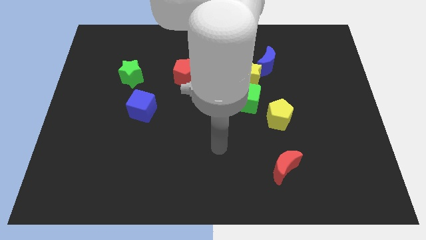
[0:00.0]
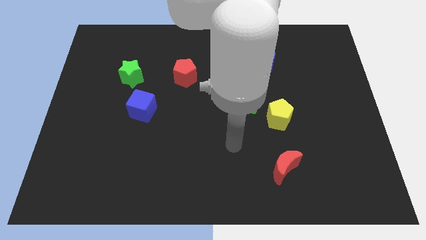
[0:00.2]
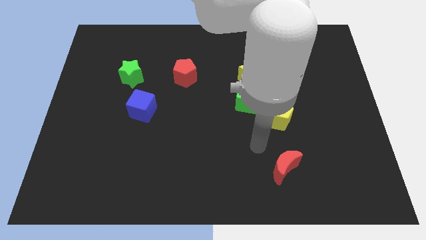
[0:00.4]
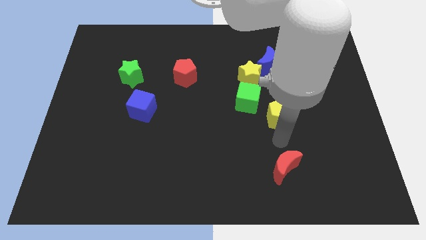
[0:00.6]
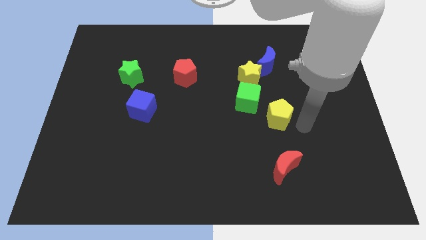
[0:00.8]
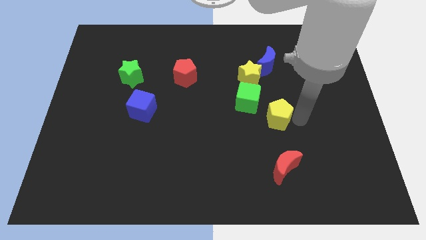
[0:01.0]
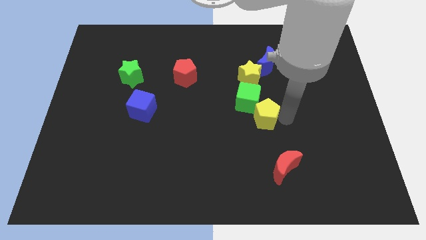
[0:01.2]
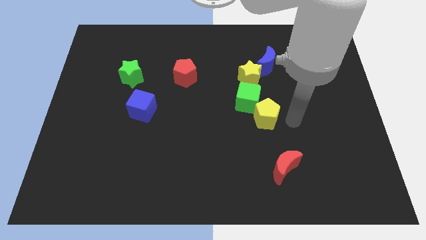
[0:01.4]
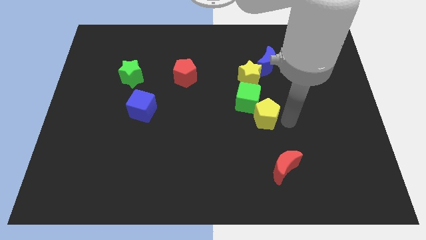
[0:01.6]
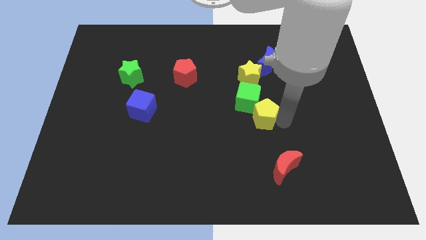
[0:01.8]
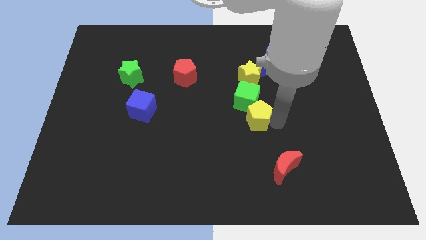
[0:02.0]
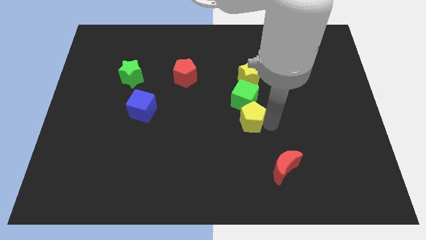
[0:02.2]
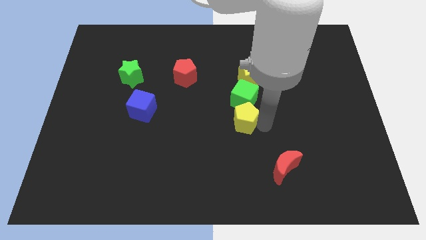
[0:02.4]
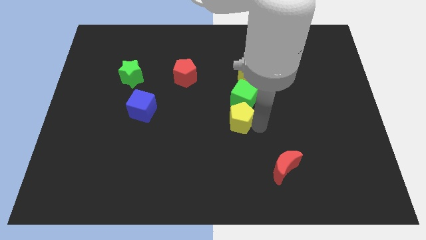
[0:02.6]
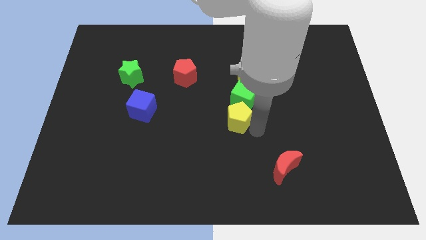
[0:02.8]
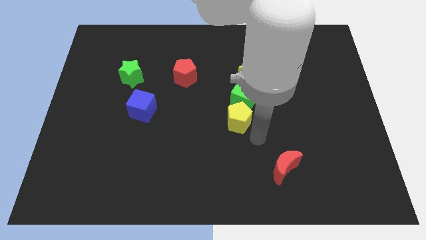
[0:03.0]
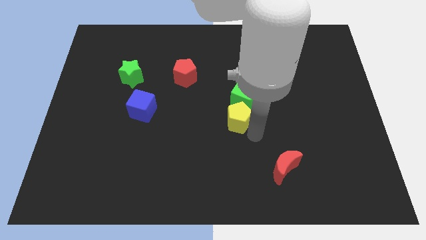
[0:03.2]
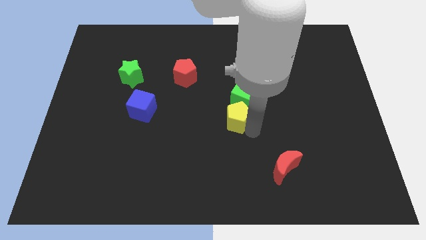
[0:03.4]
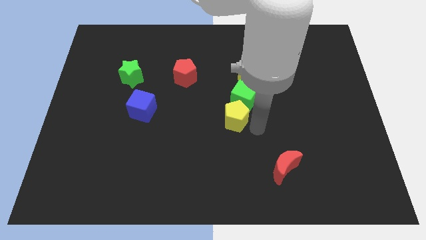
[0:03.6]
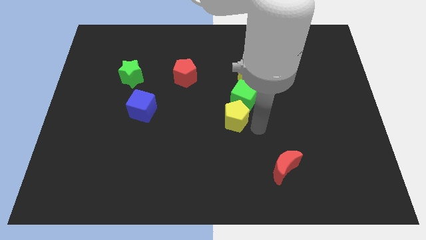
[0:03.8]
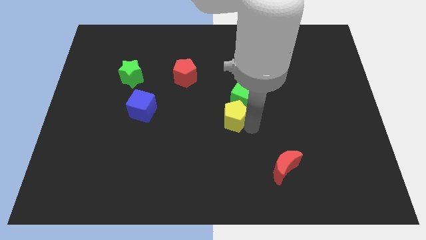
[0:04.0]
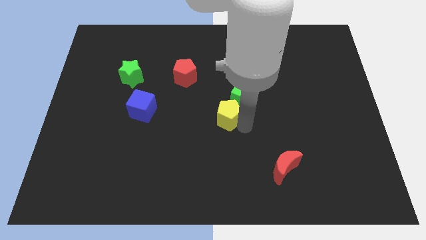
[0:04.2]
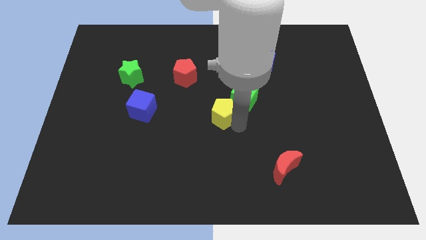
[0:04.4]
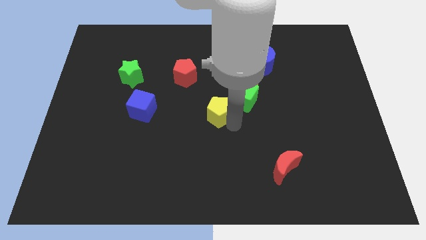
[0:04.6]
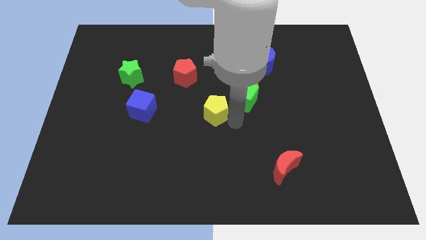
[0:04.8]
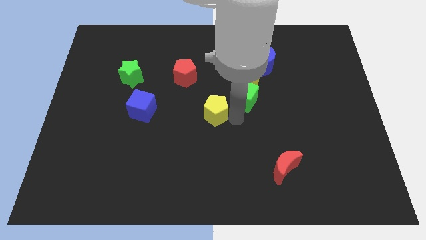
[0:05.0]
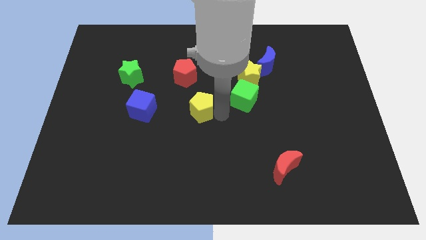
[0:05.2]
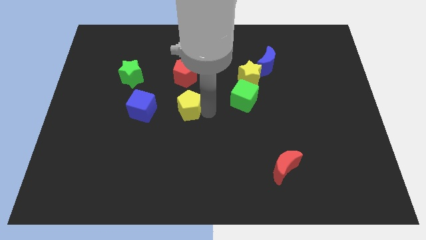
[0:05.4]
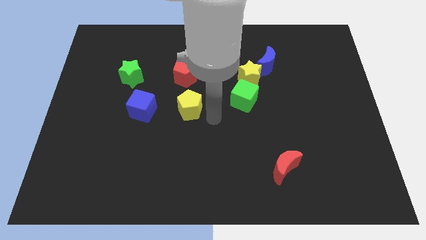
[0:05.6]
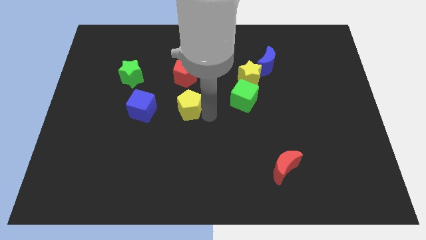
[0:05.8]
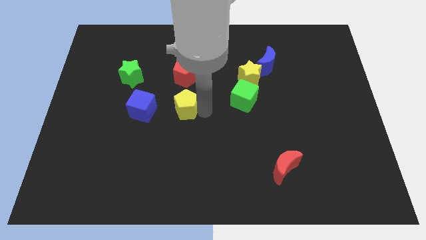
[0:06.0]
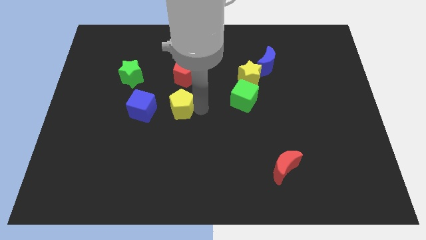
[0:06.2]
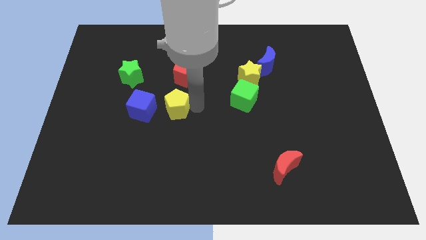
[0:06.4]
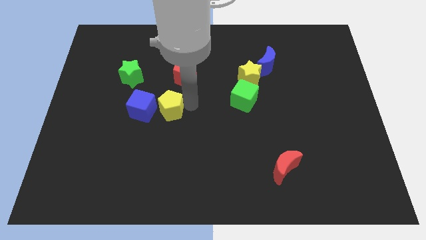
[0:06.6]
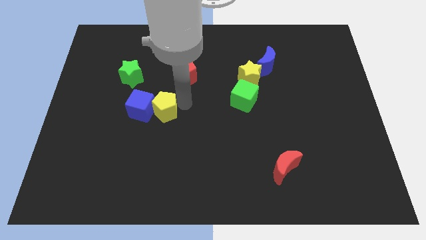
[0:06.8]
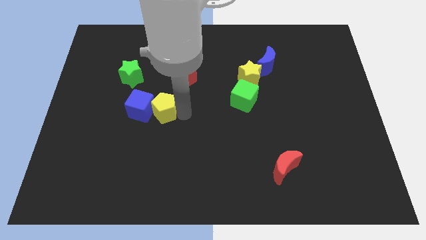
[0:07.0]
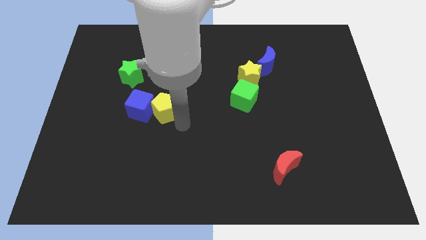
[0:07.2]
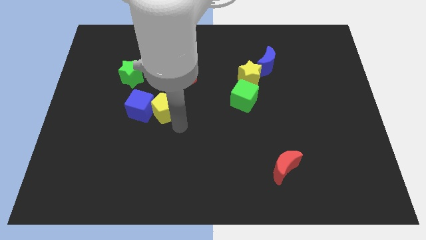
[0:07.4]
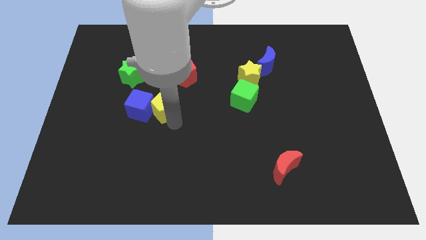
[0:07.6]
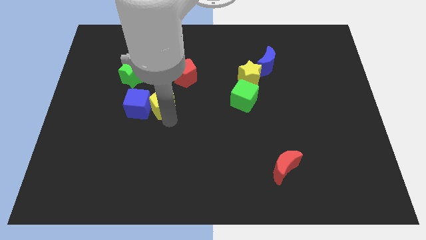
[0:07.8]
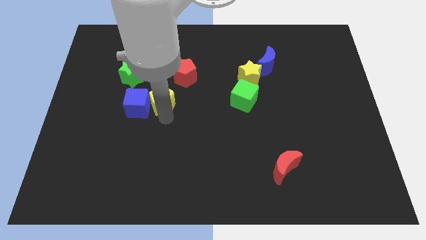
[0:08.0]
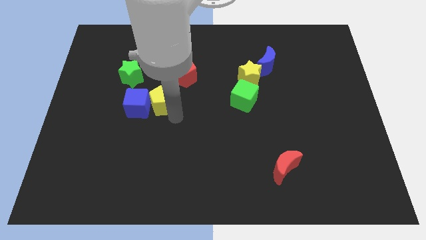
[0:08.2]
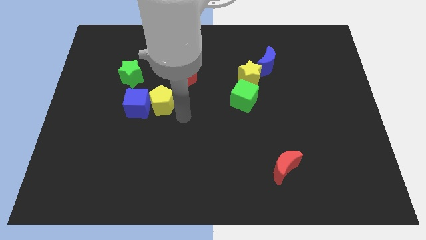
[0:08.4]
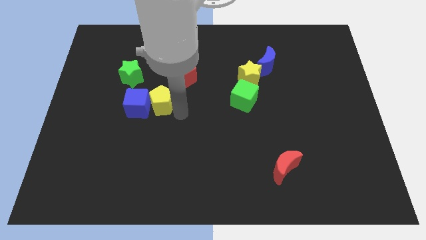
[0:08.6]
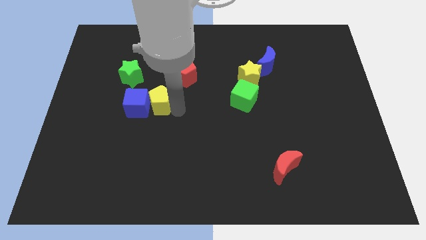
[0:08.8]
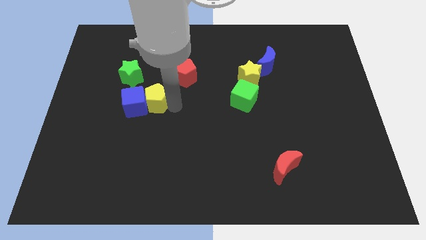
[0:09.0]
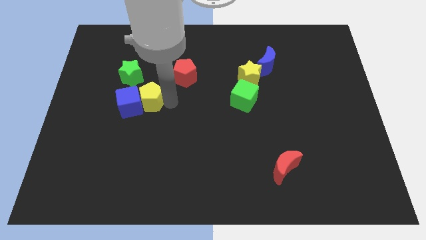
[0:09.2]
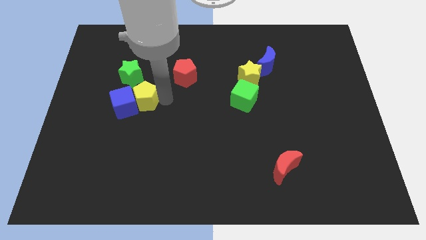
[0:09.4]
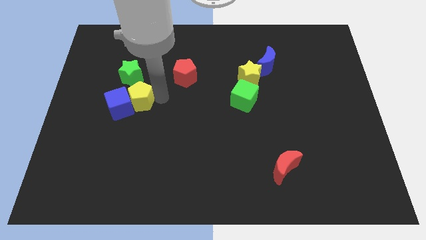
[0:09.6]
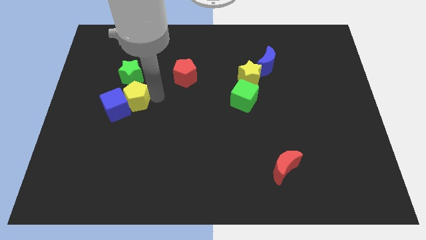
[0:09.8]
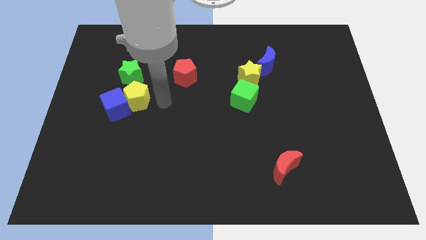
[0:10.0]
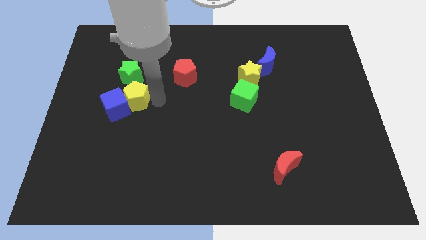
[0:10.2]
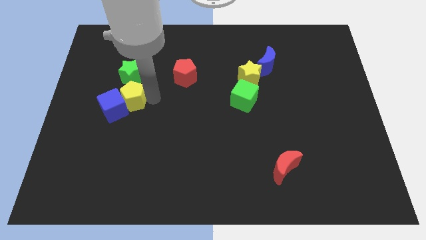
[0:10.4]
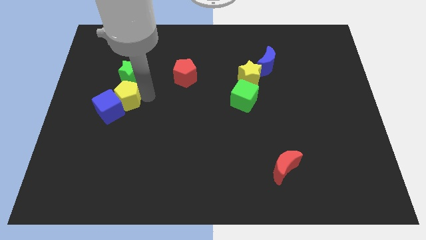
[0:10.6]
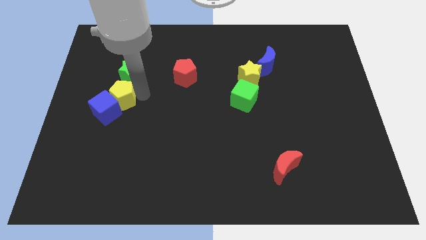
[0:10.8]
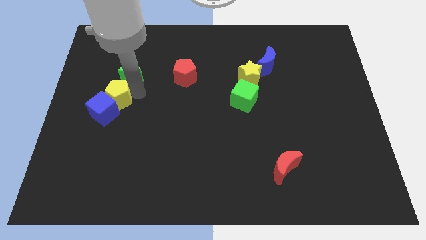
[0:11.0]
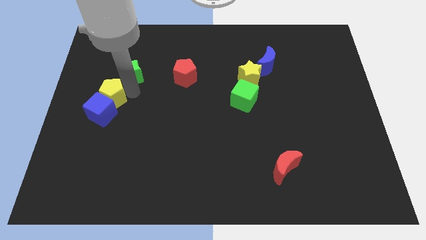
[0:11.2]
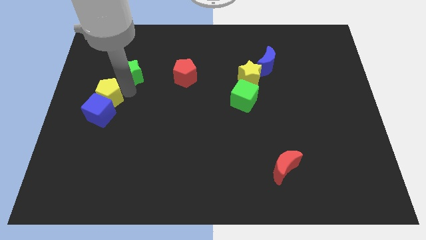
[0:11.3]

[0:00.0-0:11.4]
put the yellow pentagon to the center left
